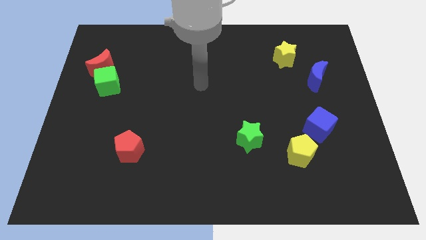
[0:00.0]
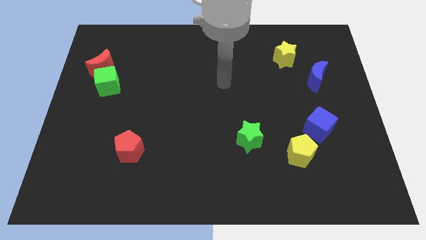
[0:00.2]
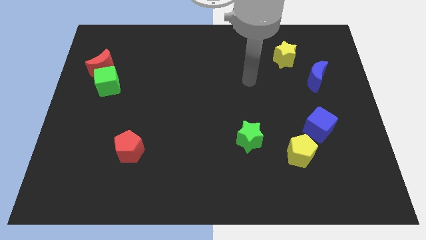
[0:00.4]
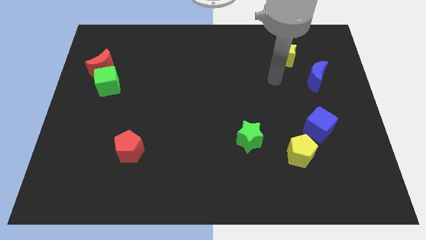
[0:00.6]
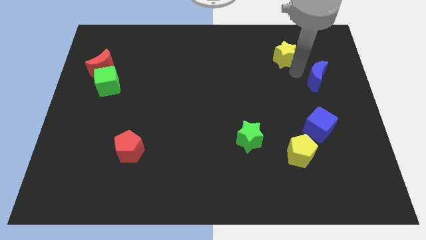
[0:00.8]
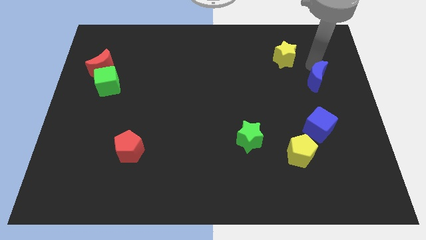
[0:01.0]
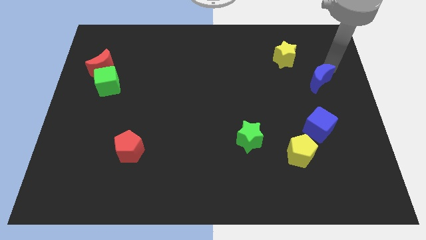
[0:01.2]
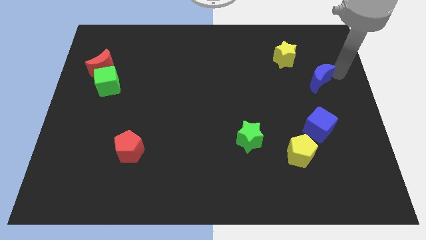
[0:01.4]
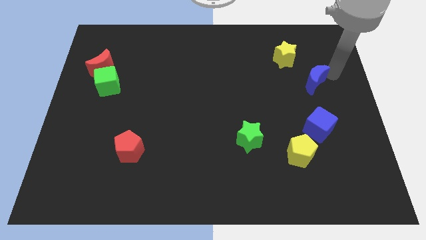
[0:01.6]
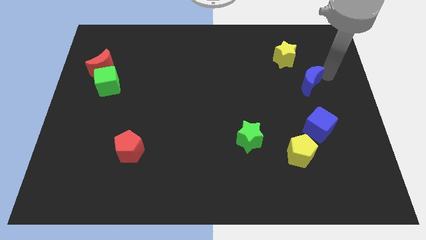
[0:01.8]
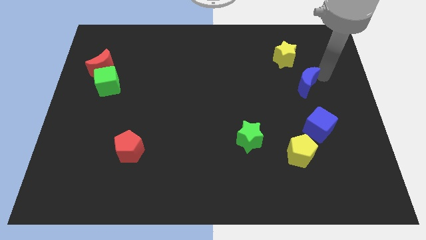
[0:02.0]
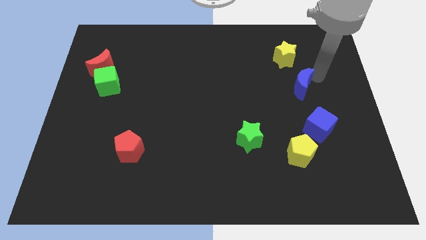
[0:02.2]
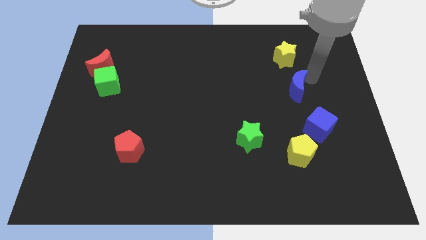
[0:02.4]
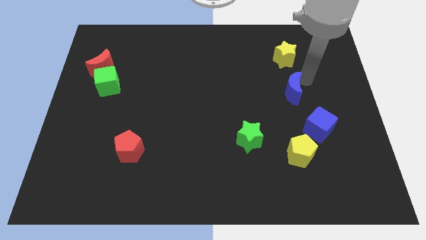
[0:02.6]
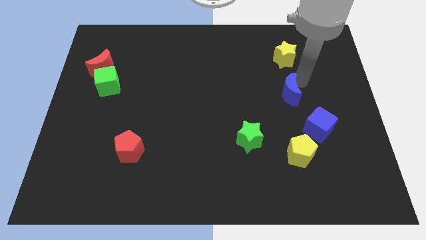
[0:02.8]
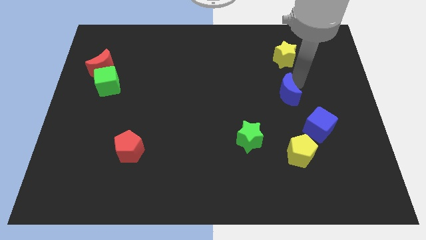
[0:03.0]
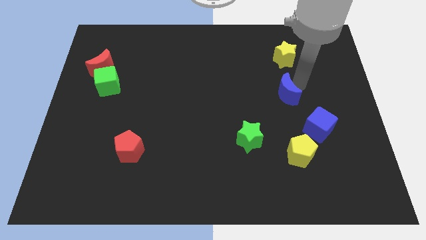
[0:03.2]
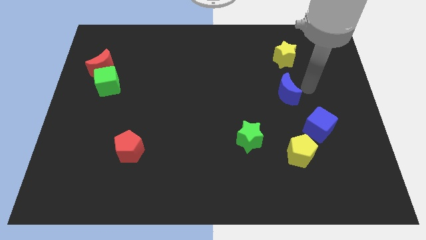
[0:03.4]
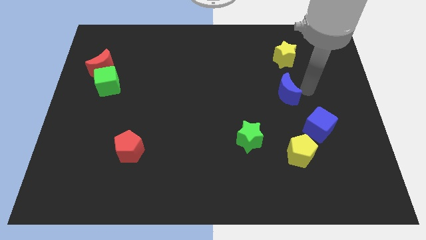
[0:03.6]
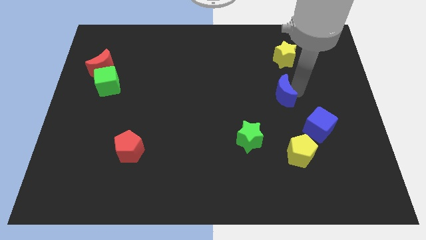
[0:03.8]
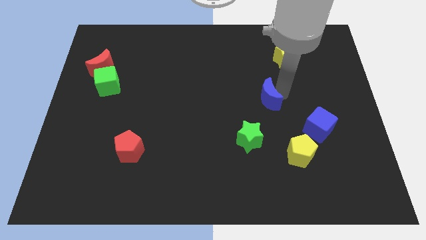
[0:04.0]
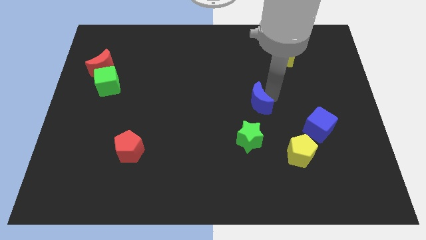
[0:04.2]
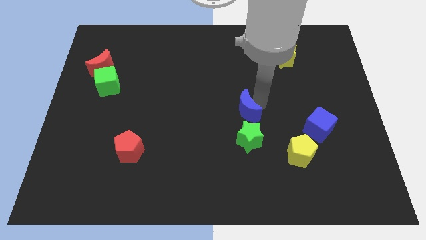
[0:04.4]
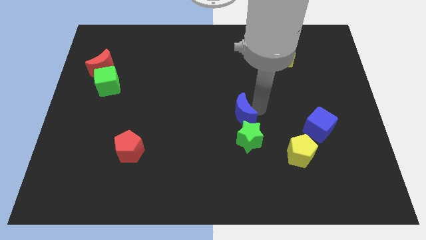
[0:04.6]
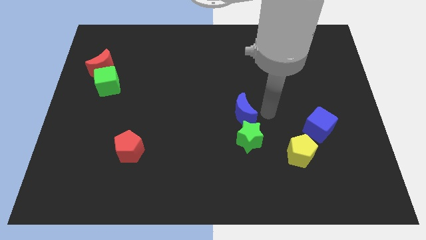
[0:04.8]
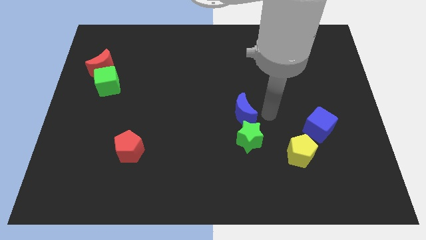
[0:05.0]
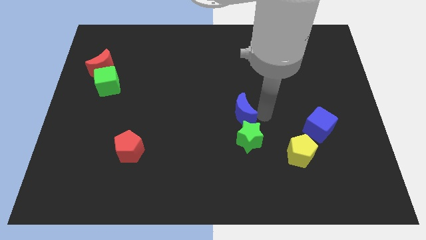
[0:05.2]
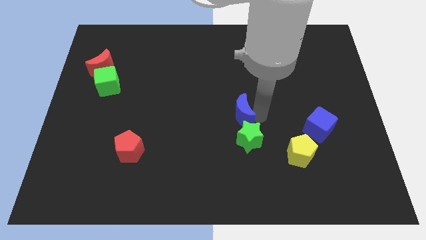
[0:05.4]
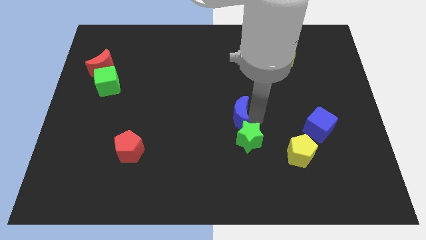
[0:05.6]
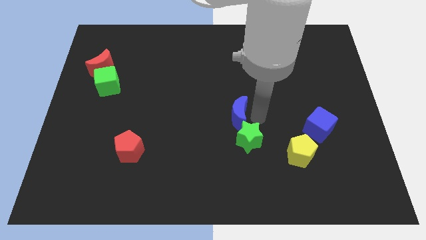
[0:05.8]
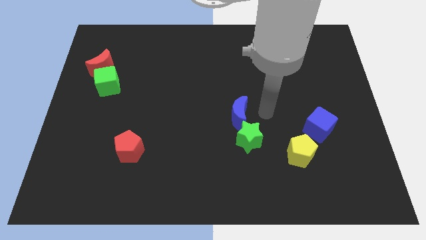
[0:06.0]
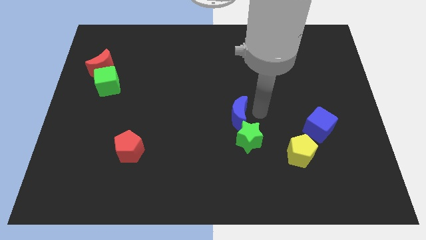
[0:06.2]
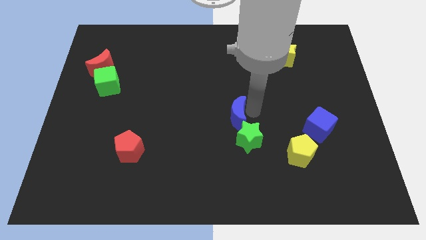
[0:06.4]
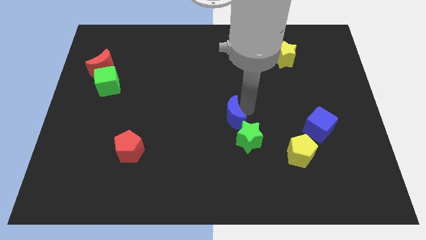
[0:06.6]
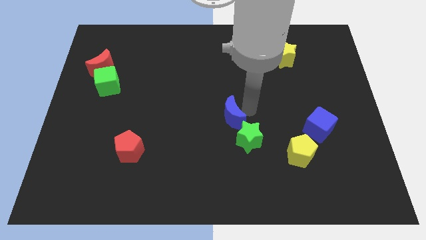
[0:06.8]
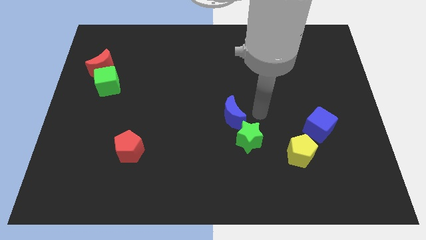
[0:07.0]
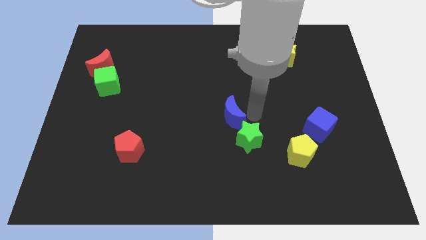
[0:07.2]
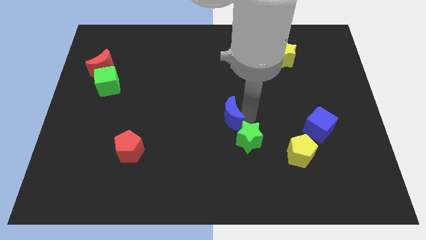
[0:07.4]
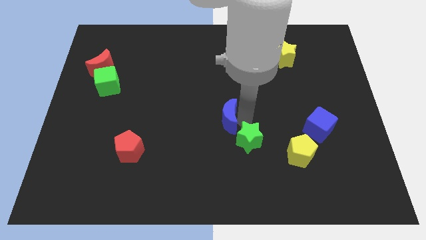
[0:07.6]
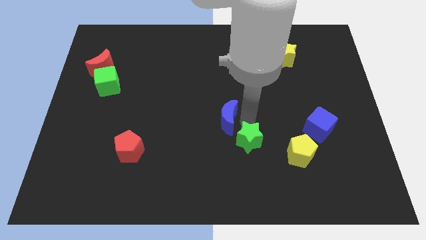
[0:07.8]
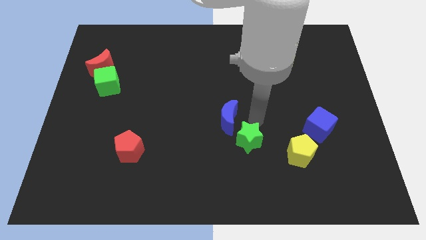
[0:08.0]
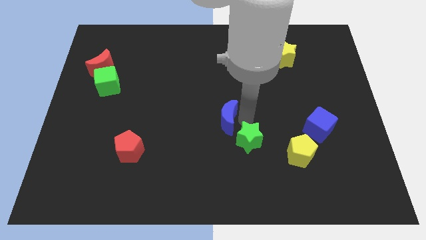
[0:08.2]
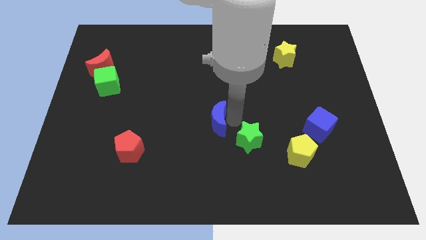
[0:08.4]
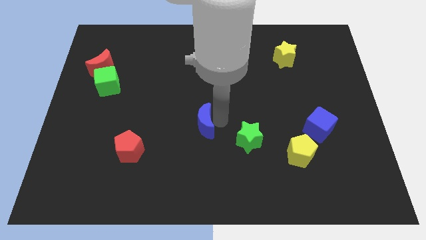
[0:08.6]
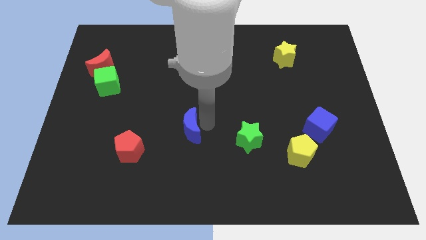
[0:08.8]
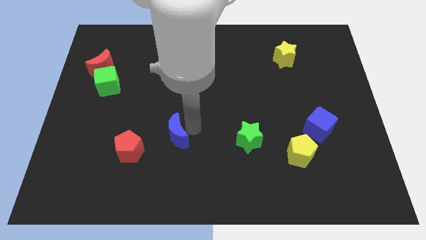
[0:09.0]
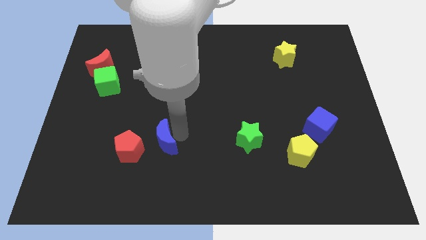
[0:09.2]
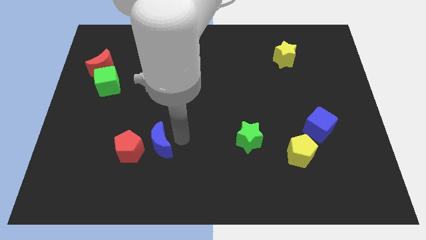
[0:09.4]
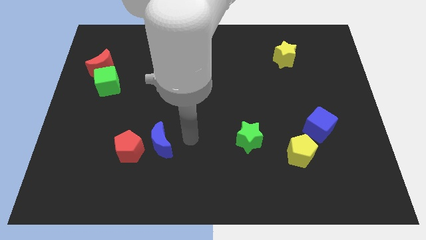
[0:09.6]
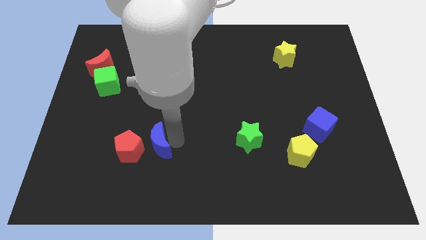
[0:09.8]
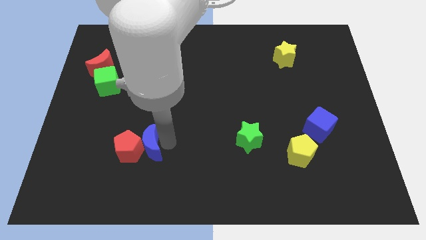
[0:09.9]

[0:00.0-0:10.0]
move the blue moon to the red pentagon

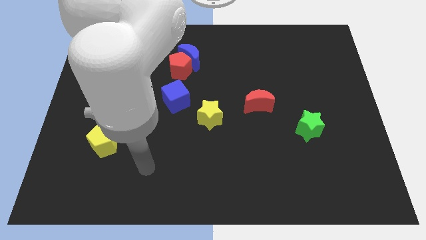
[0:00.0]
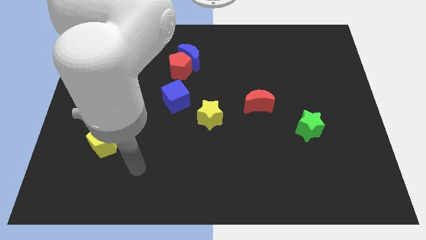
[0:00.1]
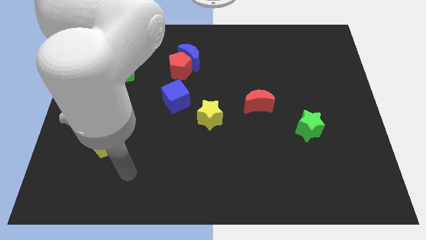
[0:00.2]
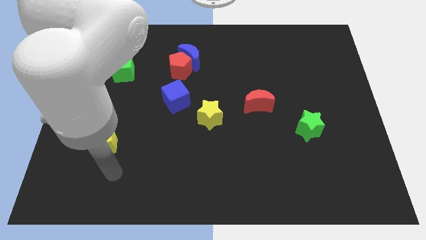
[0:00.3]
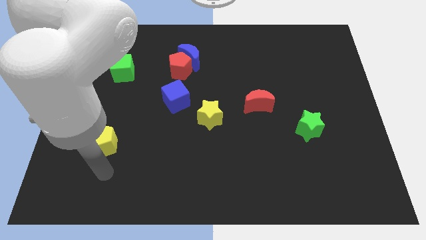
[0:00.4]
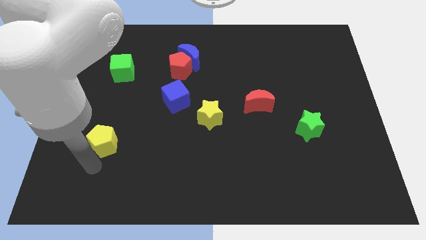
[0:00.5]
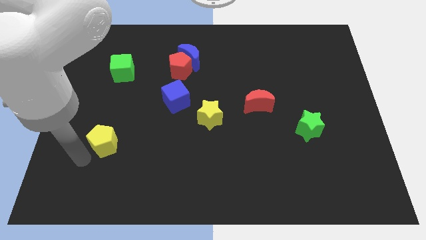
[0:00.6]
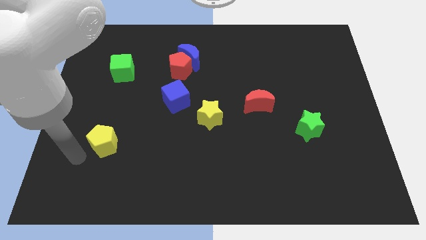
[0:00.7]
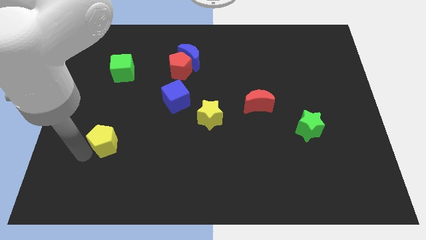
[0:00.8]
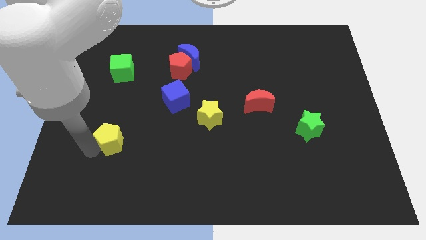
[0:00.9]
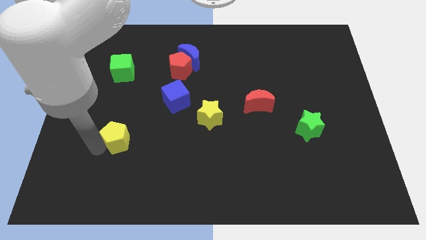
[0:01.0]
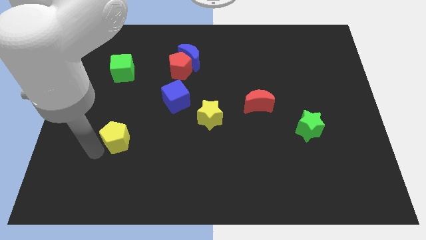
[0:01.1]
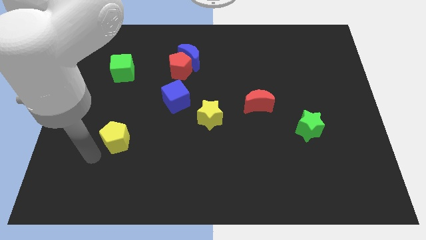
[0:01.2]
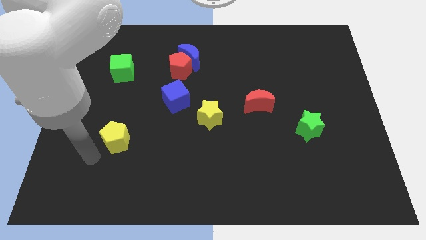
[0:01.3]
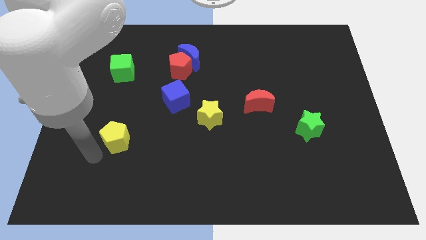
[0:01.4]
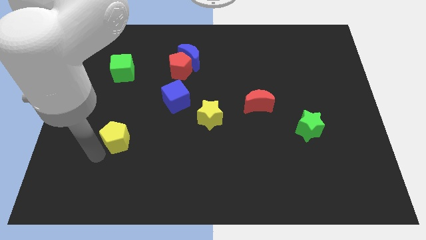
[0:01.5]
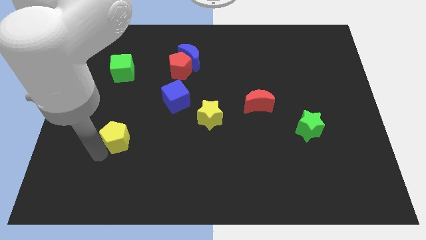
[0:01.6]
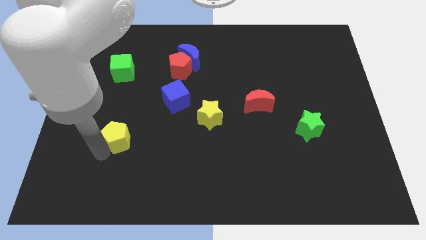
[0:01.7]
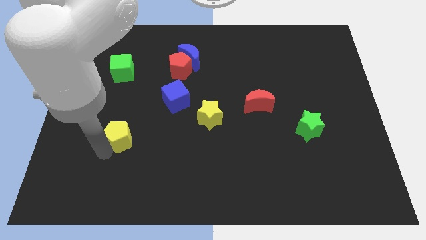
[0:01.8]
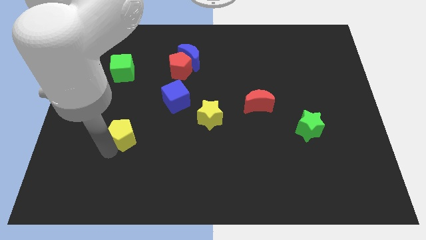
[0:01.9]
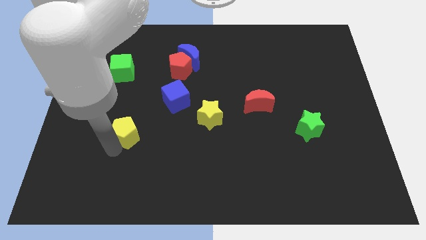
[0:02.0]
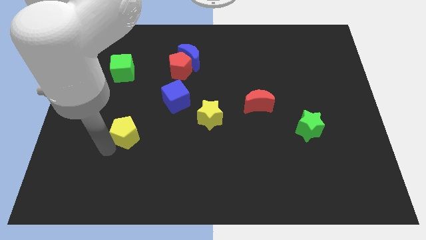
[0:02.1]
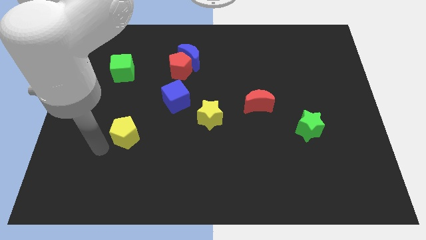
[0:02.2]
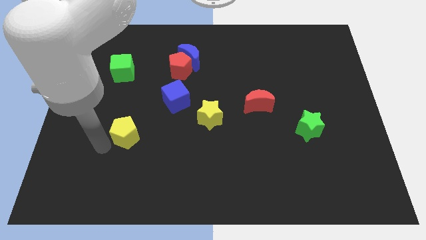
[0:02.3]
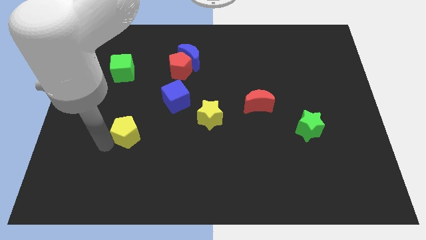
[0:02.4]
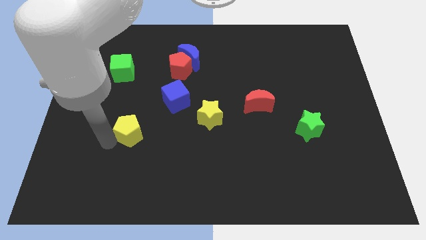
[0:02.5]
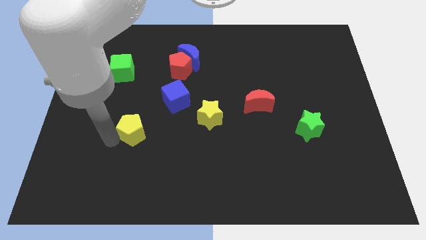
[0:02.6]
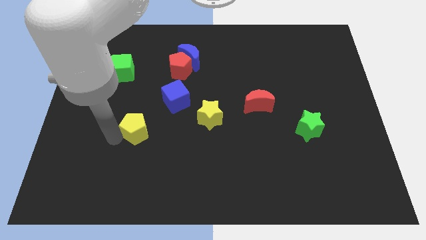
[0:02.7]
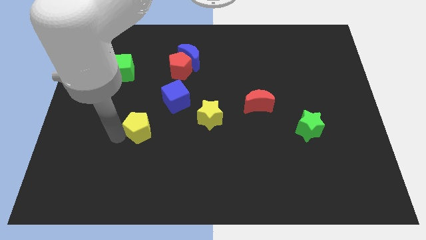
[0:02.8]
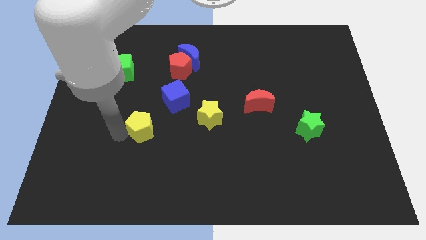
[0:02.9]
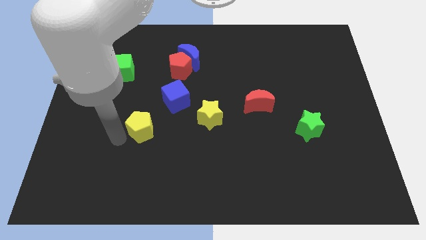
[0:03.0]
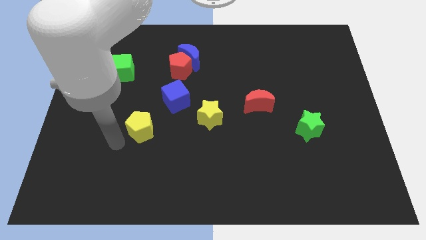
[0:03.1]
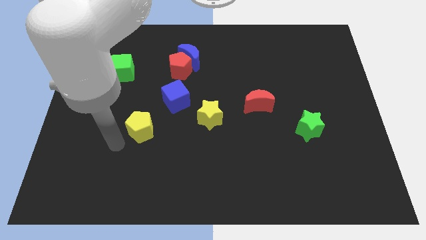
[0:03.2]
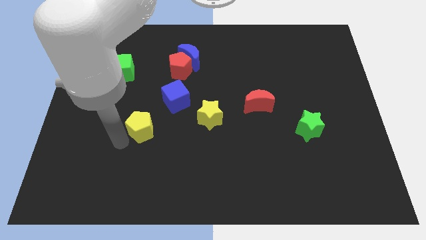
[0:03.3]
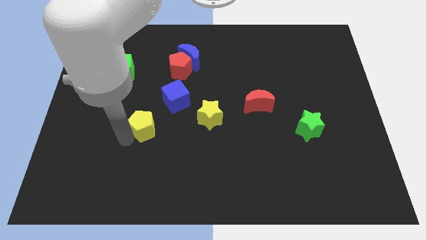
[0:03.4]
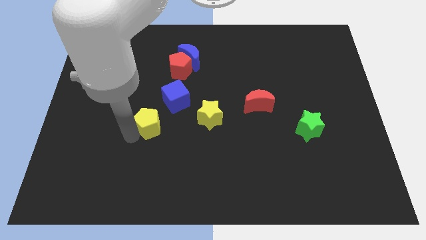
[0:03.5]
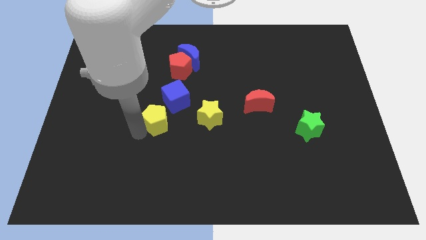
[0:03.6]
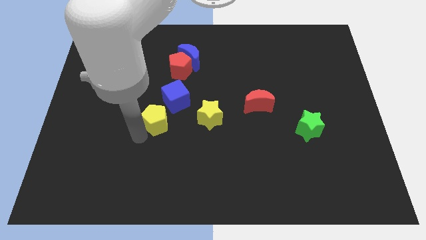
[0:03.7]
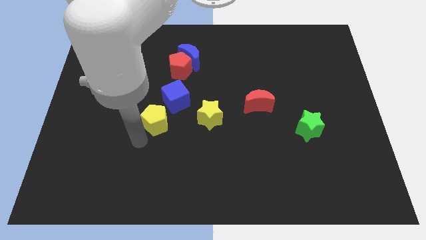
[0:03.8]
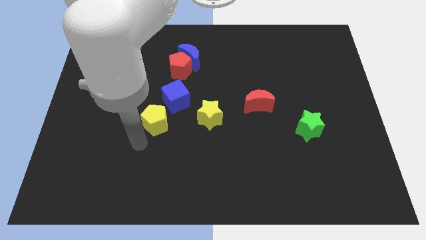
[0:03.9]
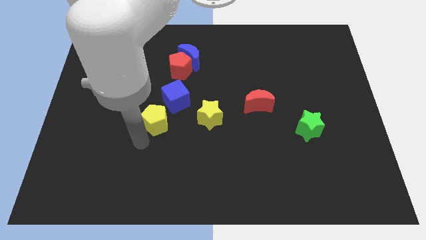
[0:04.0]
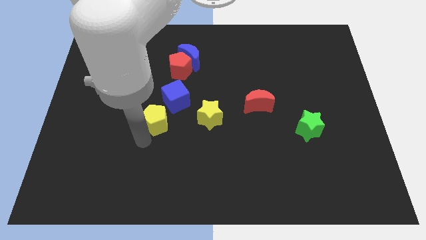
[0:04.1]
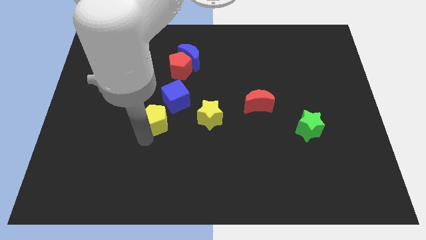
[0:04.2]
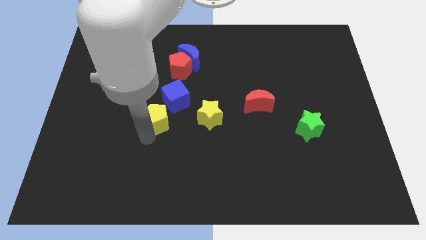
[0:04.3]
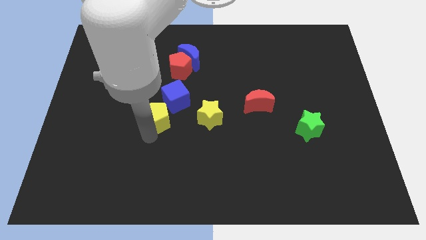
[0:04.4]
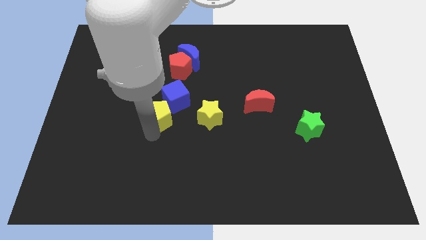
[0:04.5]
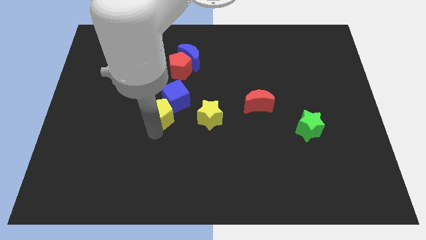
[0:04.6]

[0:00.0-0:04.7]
slide the yellow pentagon close to the blue cube
